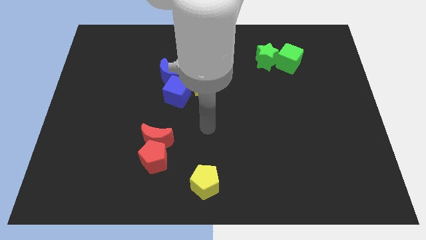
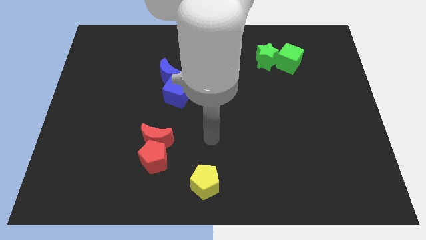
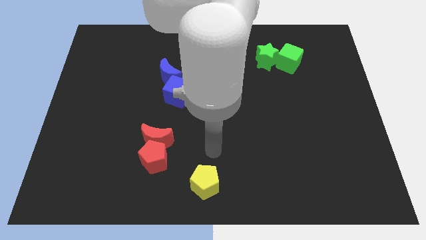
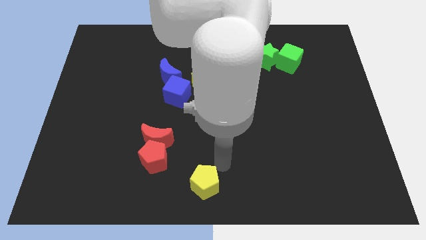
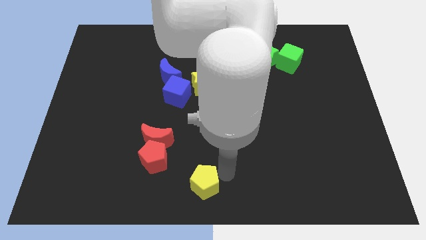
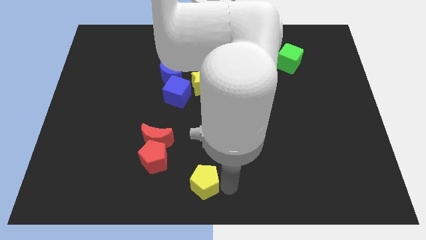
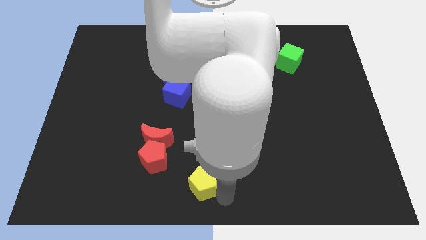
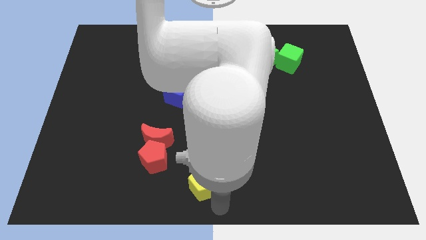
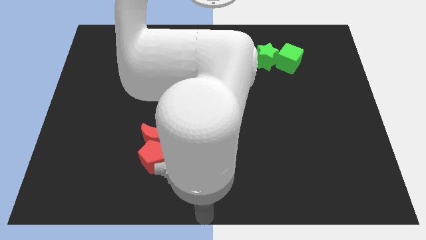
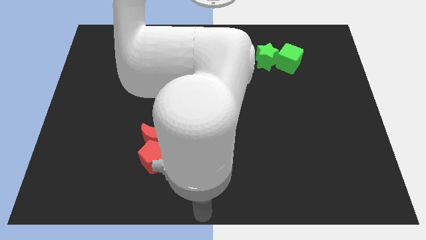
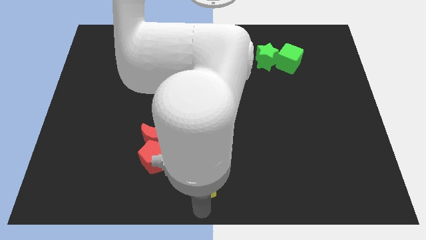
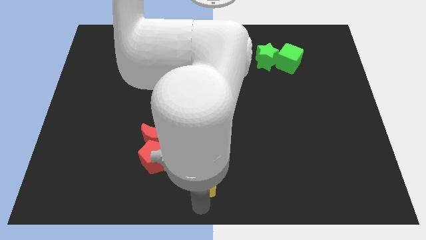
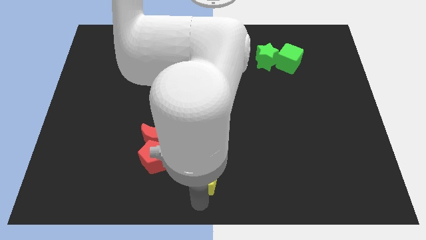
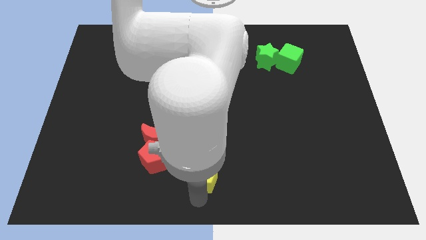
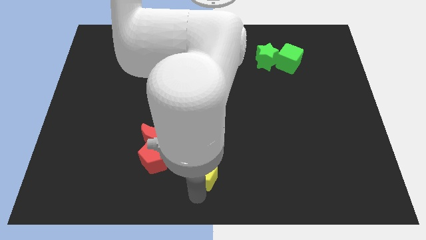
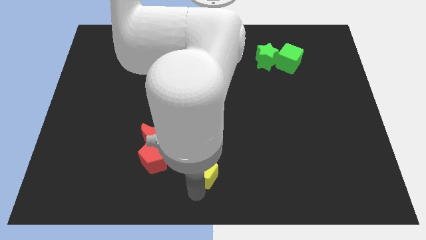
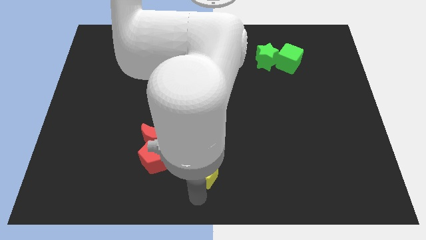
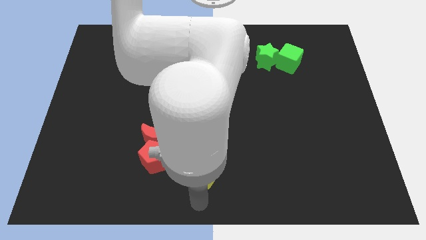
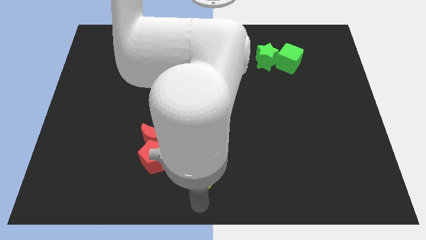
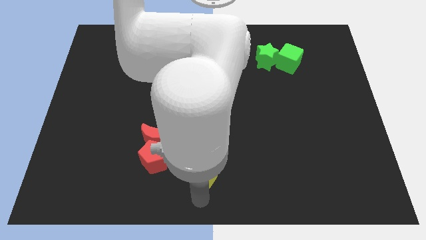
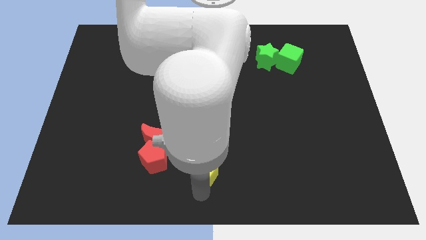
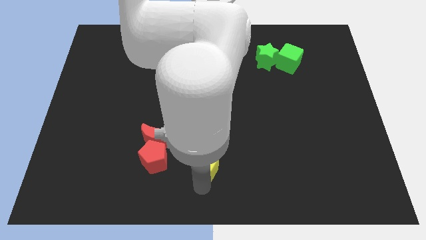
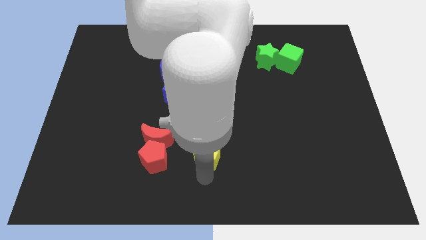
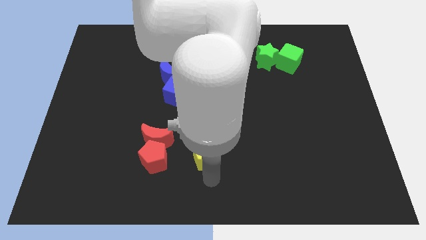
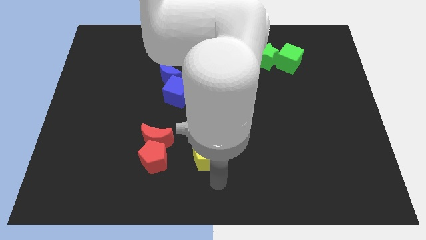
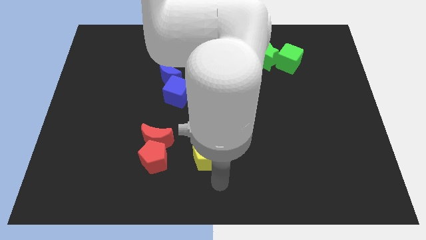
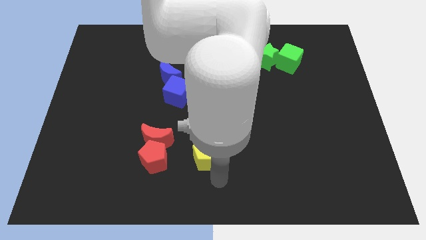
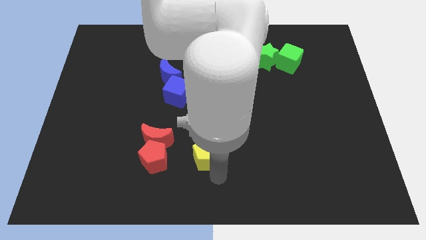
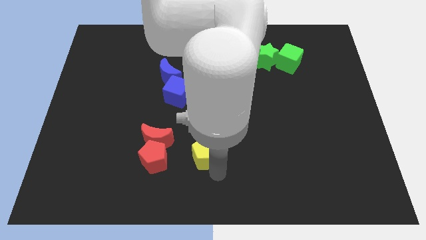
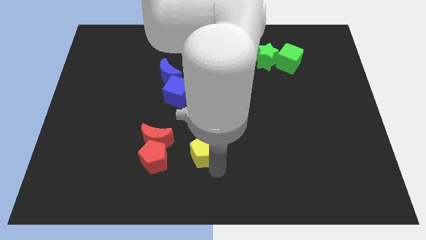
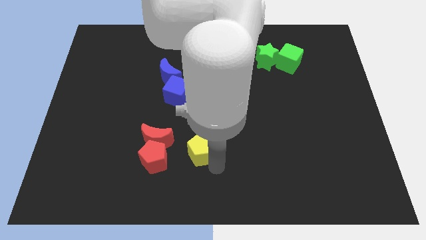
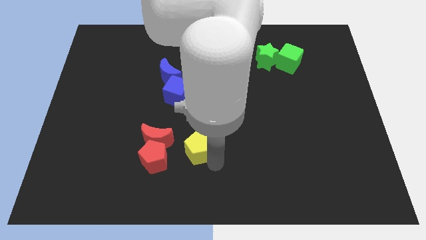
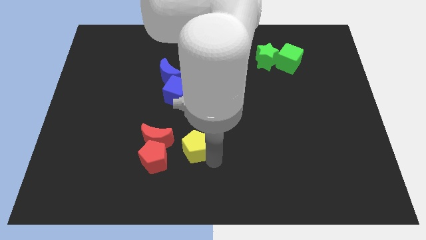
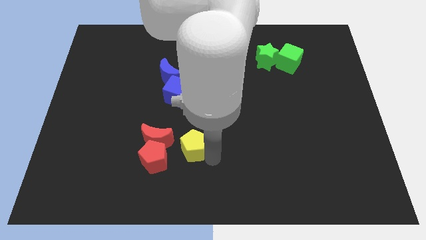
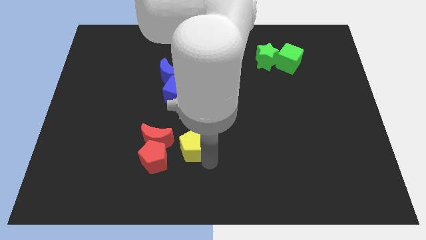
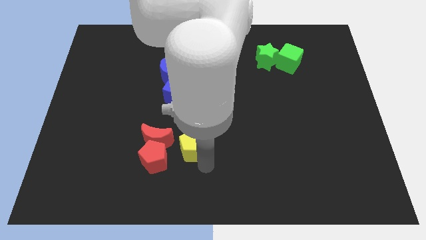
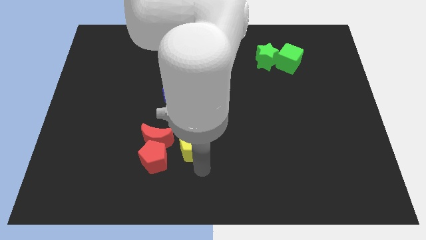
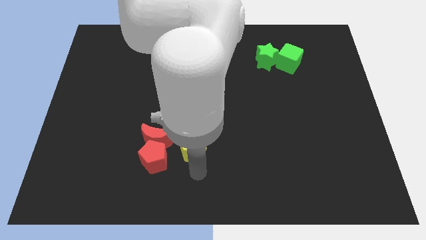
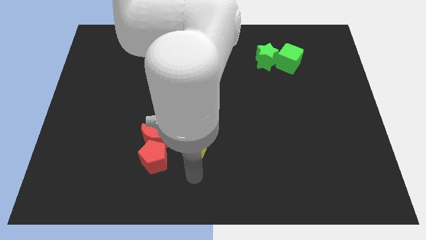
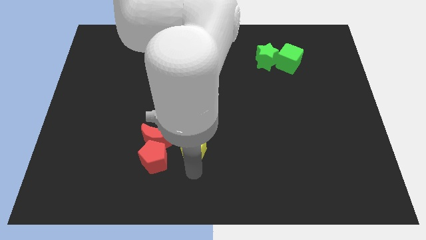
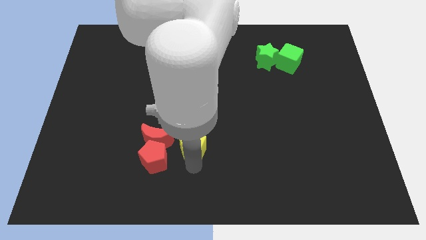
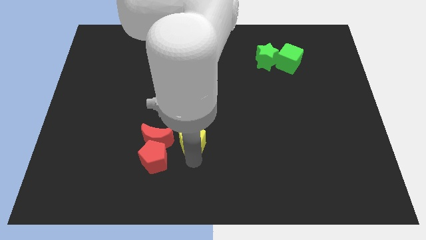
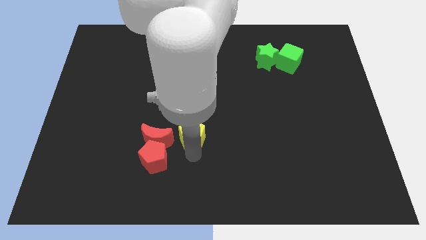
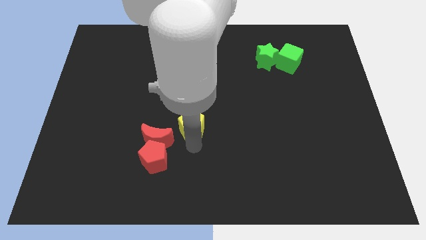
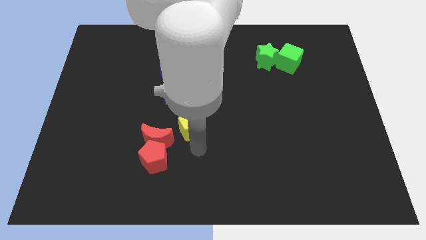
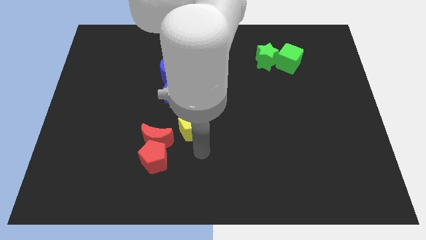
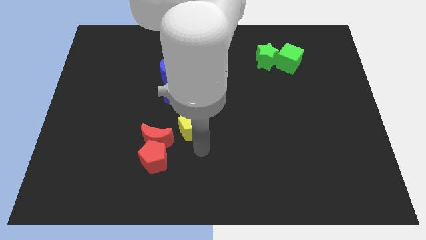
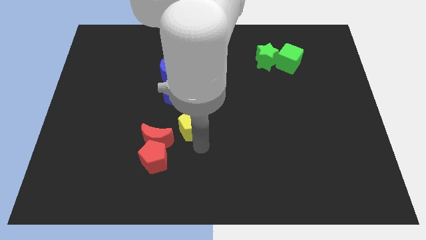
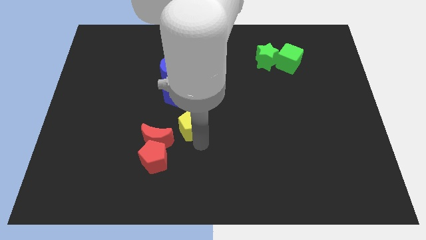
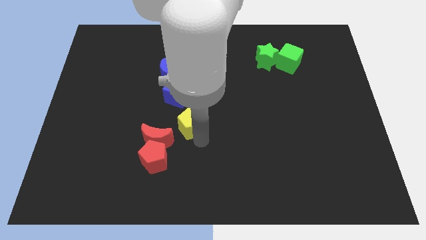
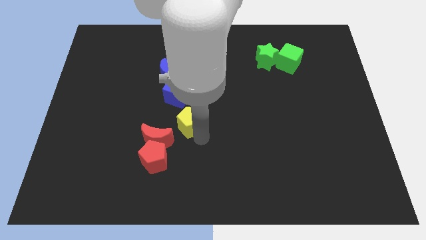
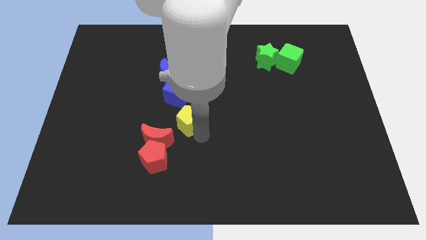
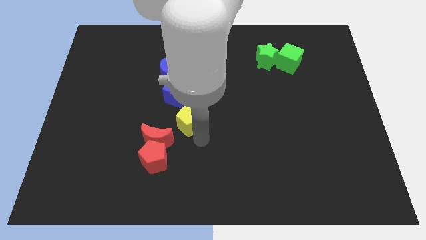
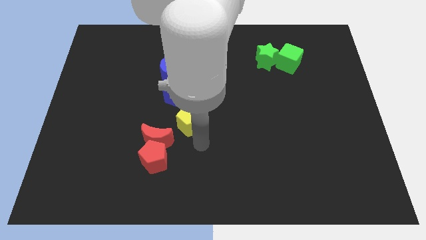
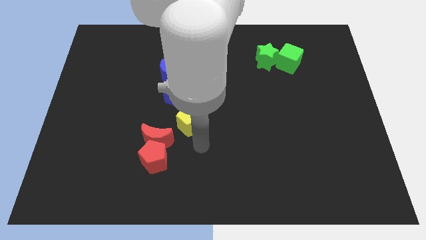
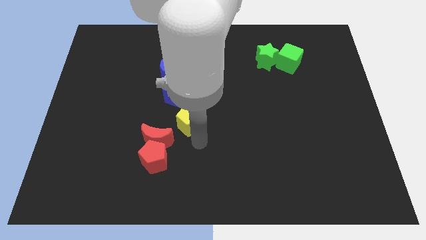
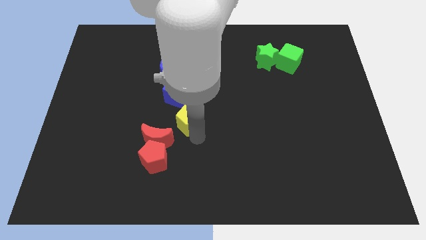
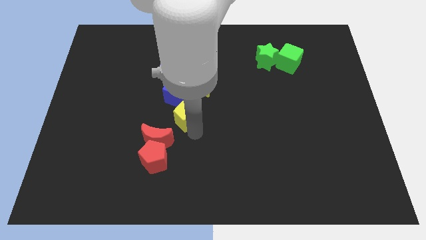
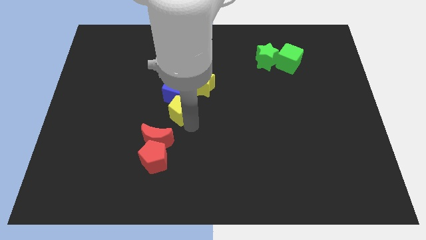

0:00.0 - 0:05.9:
put the yellow pentagon towards the blue cube

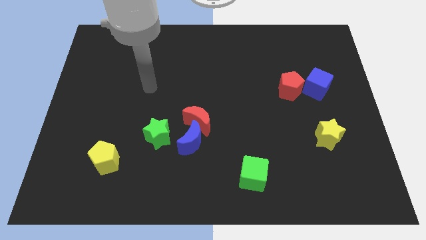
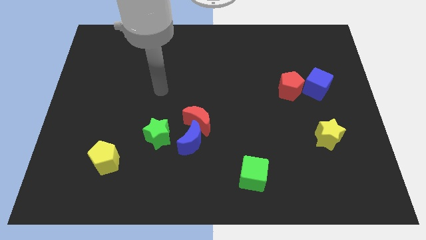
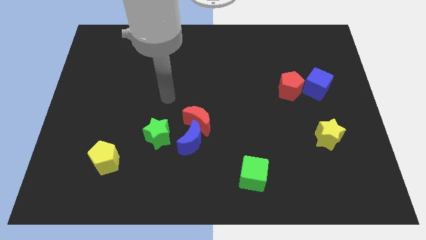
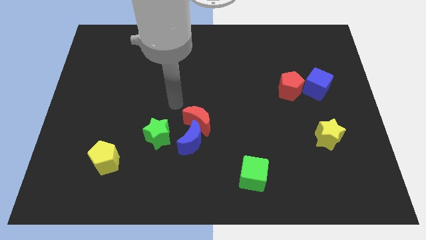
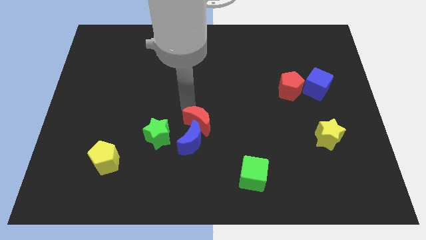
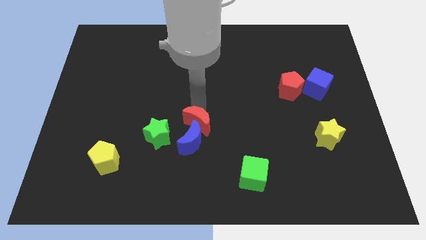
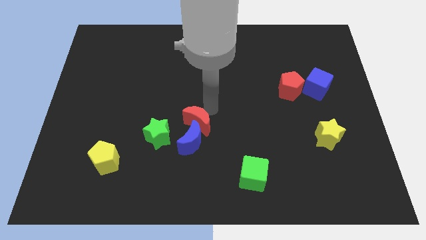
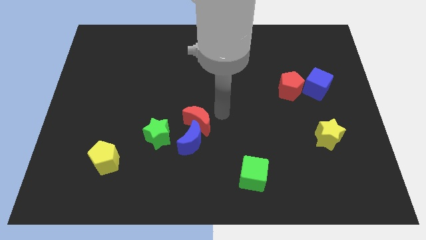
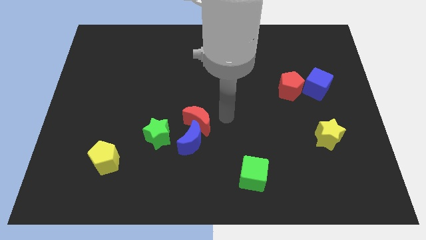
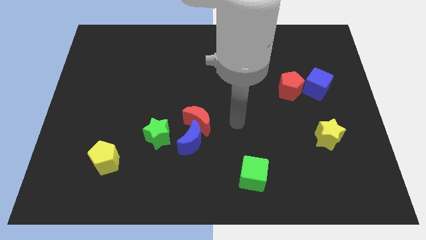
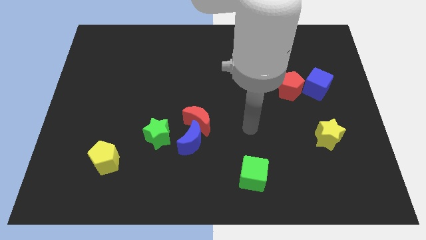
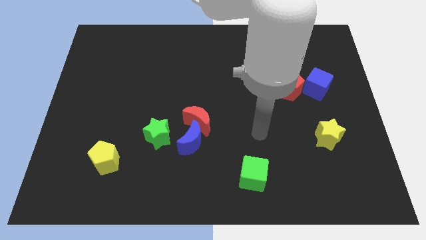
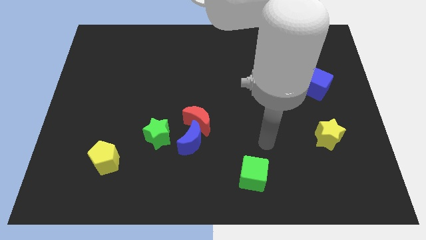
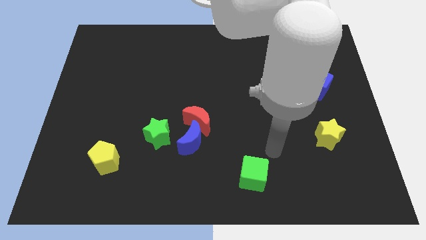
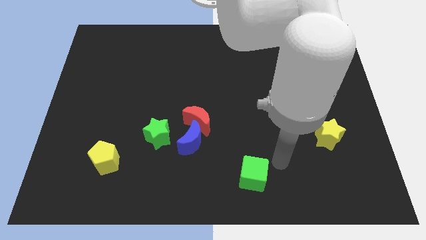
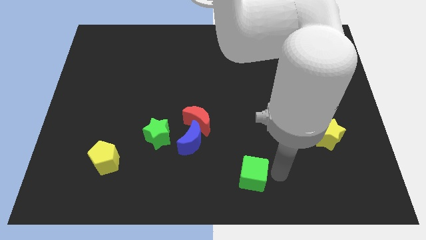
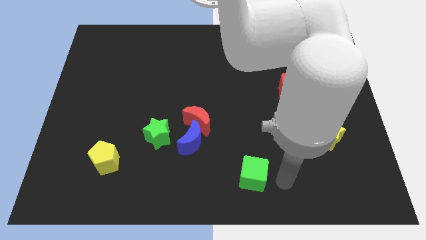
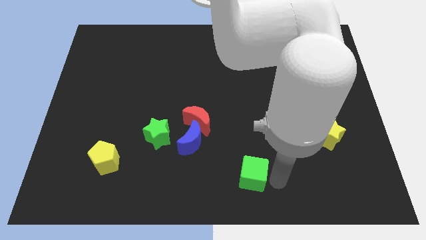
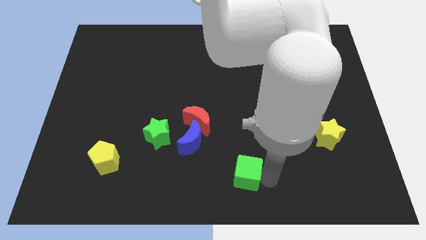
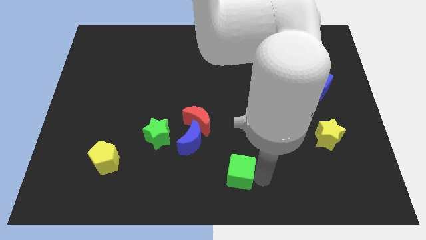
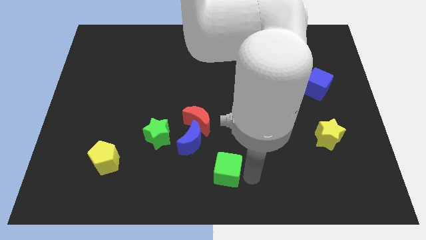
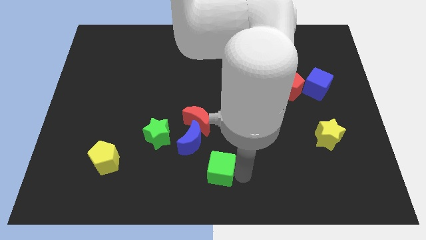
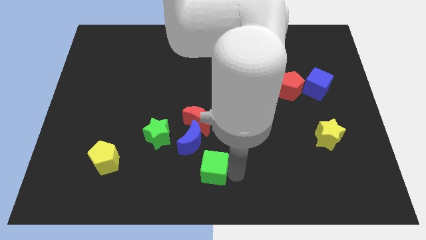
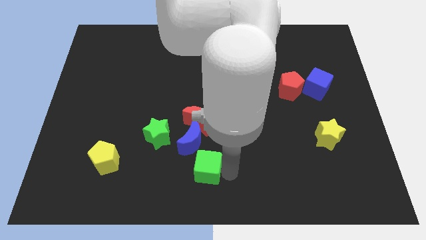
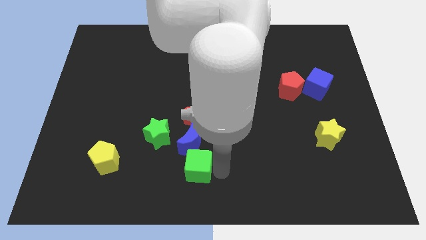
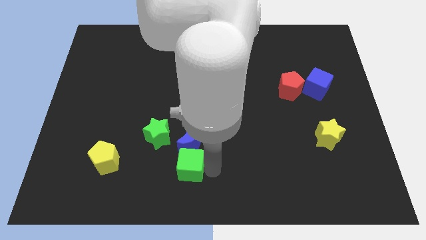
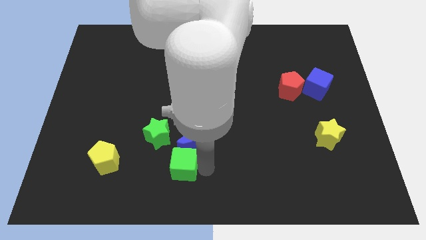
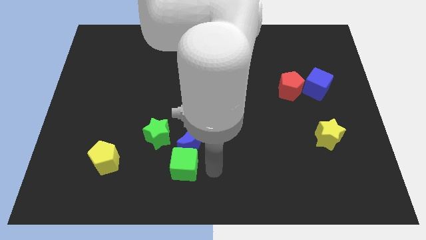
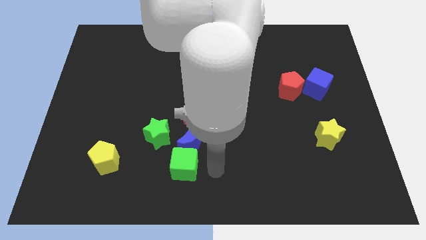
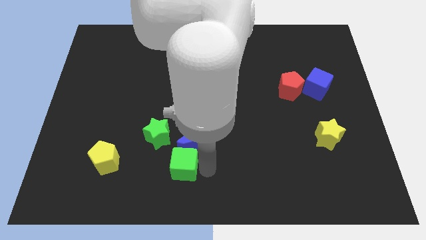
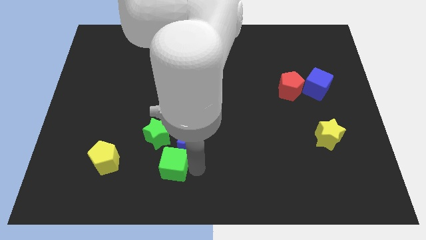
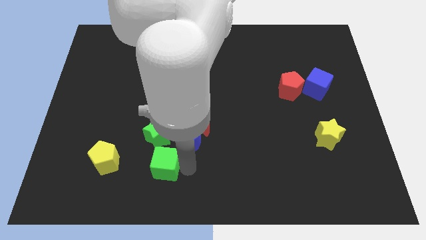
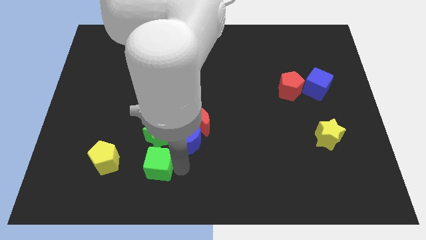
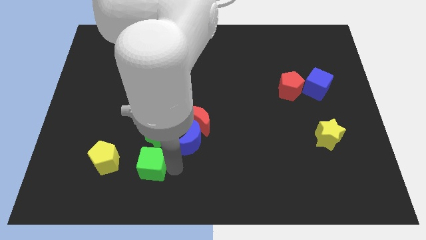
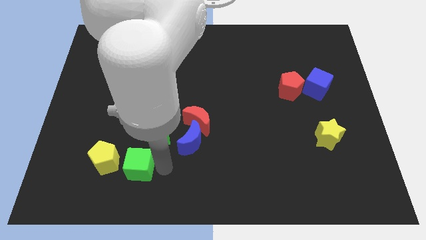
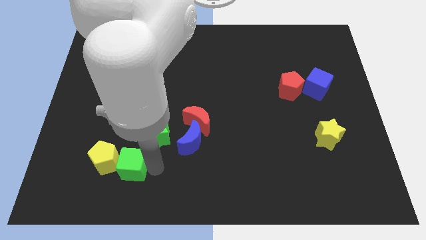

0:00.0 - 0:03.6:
move the green cube next to the yellow pentagon
